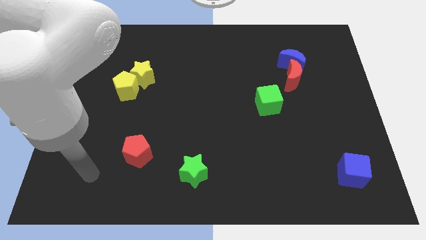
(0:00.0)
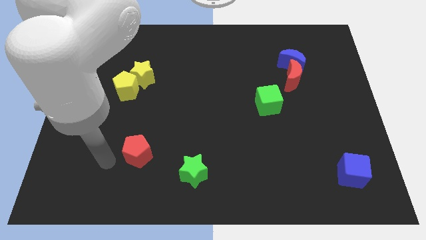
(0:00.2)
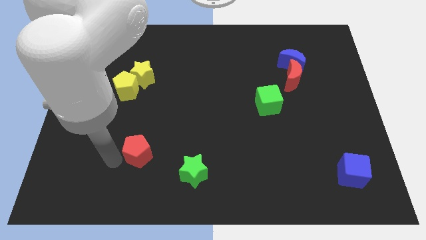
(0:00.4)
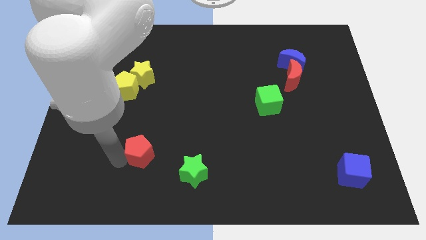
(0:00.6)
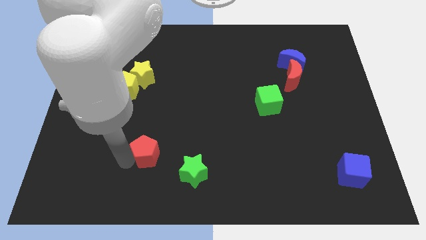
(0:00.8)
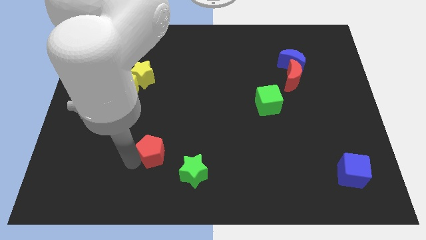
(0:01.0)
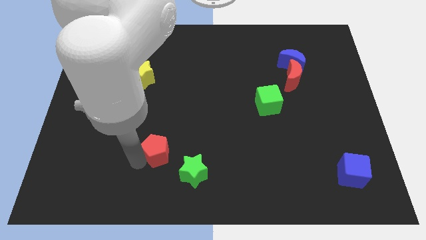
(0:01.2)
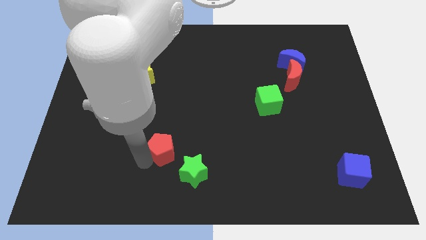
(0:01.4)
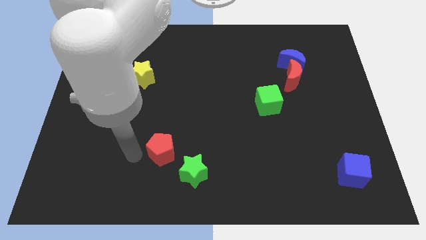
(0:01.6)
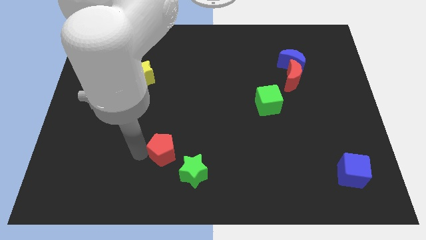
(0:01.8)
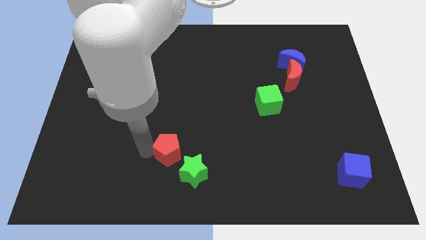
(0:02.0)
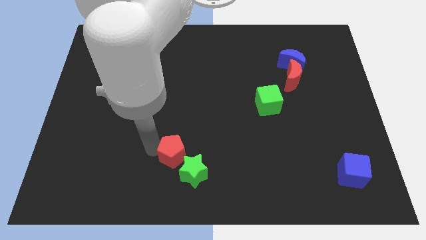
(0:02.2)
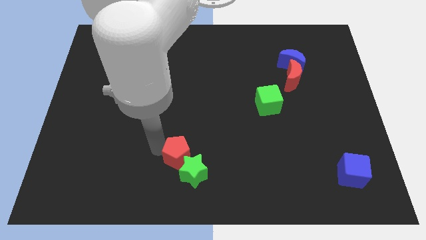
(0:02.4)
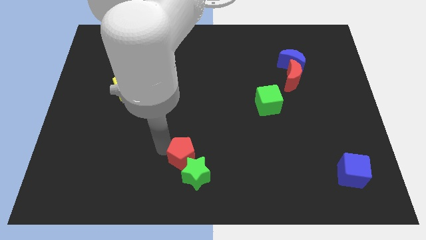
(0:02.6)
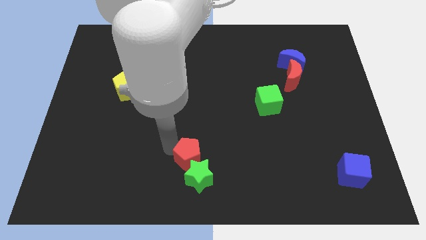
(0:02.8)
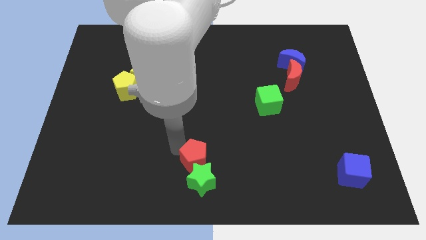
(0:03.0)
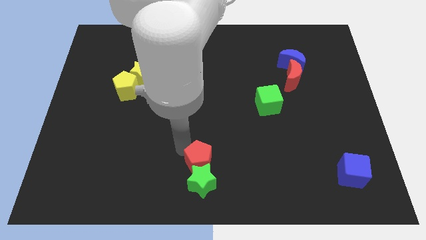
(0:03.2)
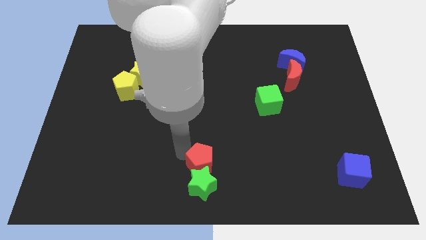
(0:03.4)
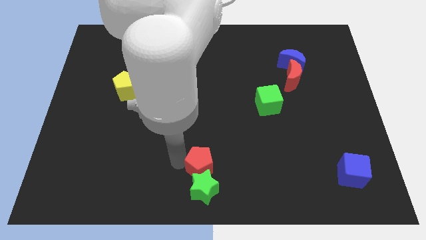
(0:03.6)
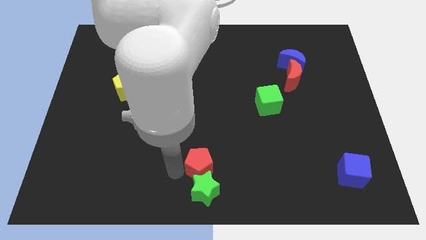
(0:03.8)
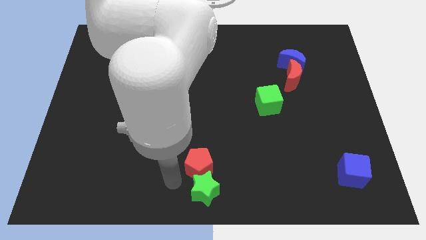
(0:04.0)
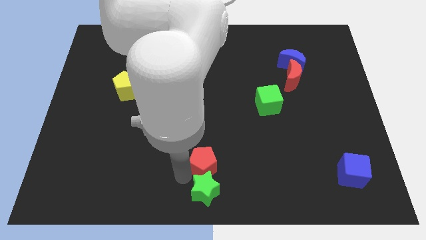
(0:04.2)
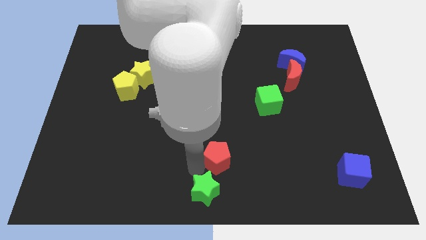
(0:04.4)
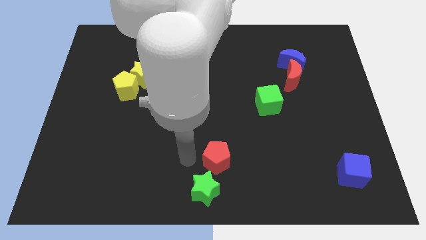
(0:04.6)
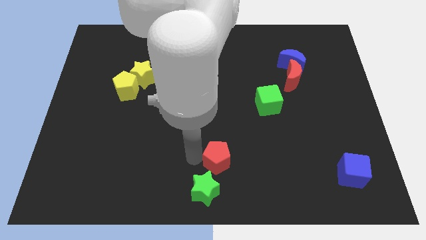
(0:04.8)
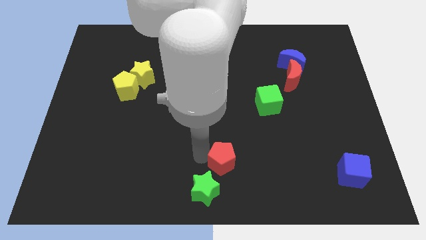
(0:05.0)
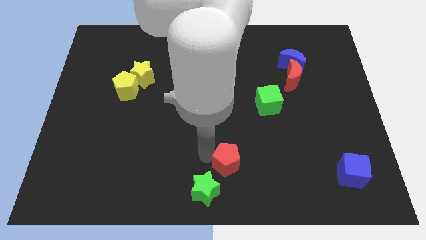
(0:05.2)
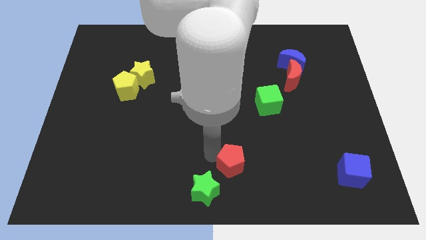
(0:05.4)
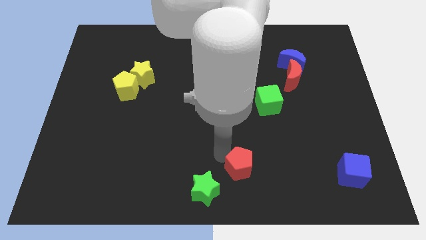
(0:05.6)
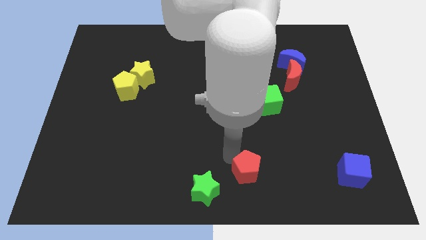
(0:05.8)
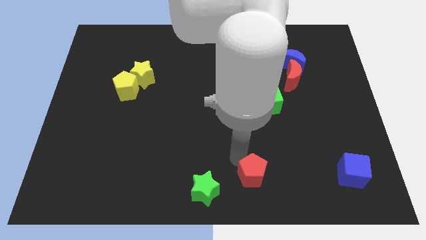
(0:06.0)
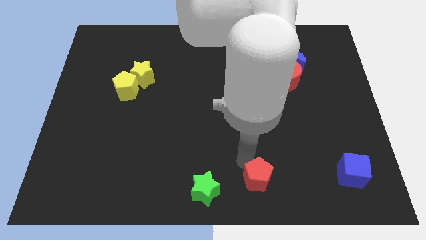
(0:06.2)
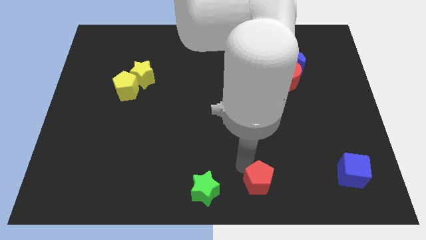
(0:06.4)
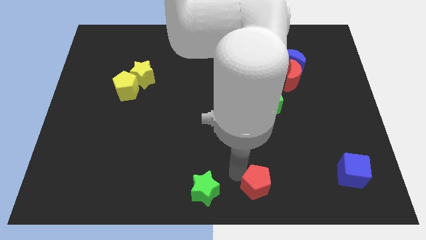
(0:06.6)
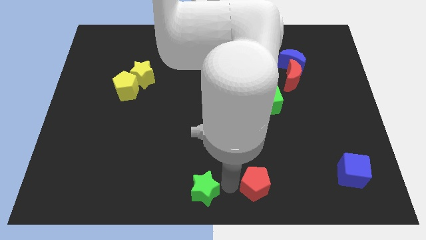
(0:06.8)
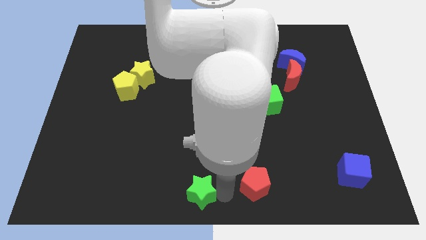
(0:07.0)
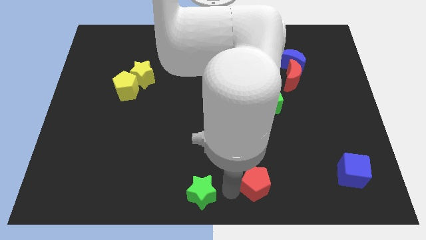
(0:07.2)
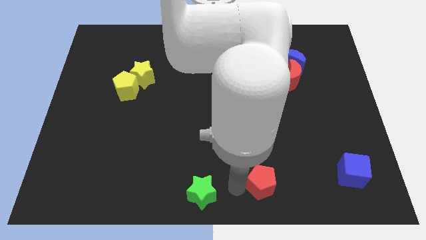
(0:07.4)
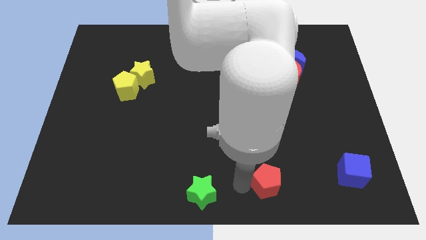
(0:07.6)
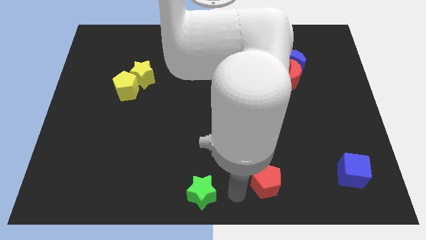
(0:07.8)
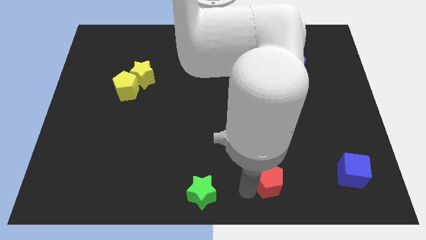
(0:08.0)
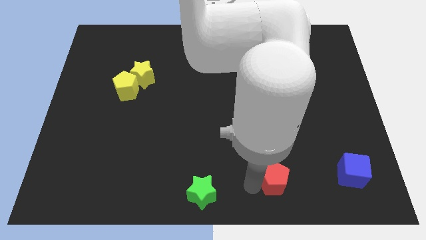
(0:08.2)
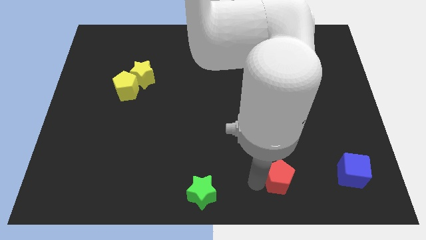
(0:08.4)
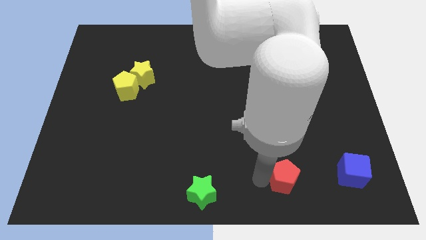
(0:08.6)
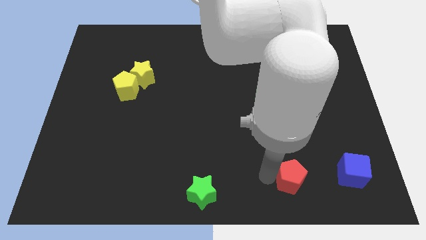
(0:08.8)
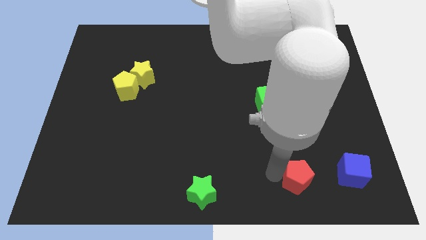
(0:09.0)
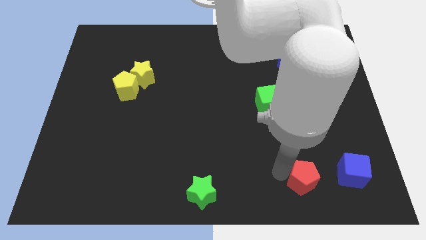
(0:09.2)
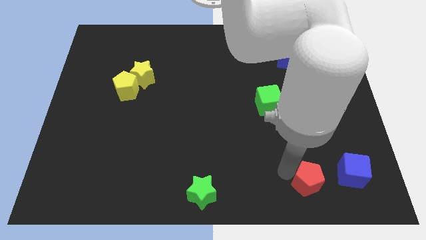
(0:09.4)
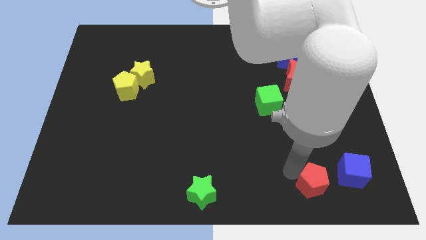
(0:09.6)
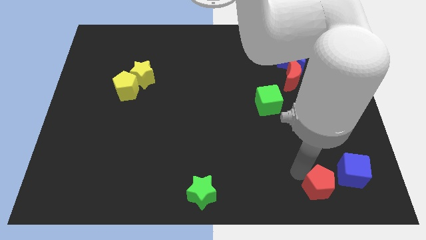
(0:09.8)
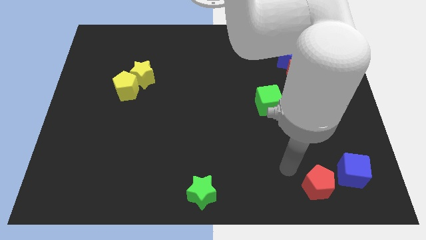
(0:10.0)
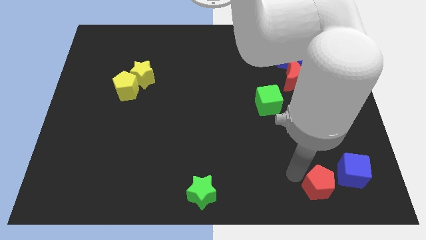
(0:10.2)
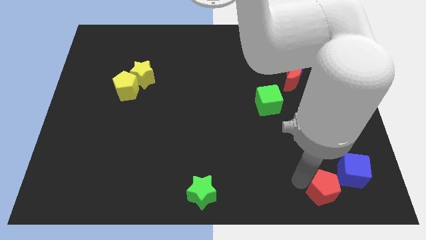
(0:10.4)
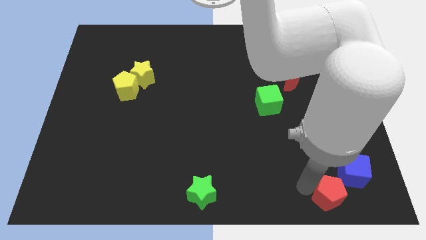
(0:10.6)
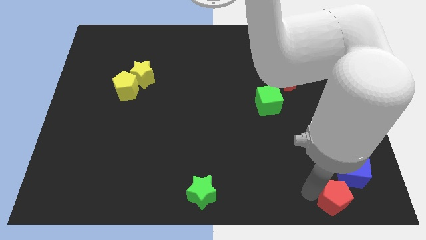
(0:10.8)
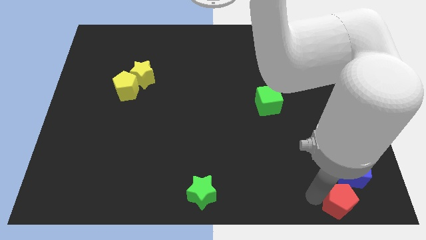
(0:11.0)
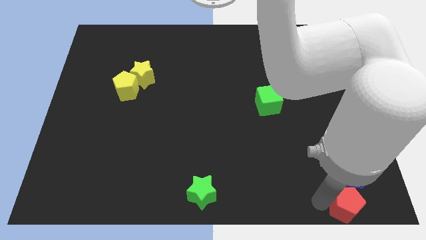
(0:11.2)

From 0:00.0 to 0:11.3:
move the red pentagon to the lower right corner
